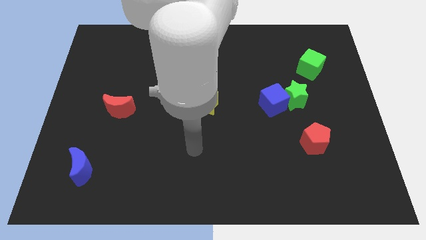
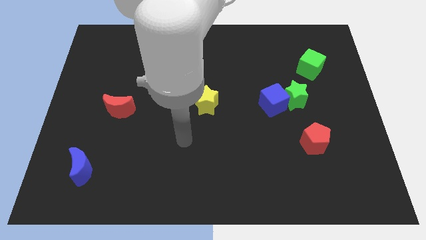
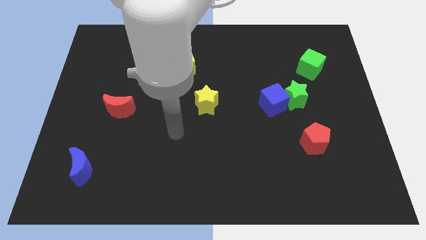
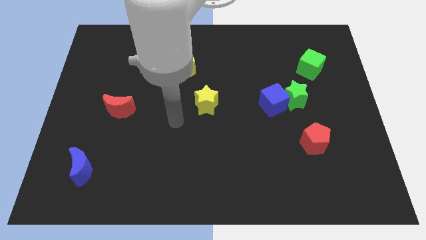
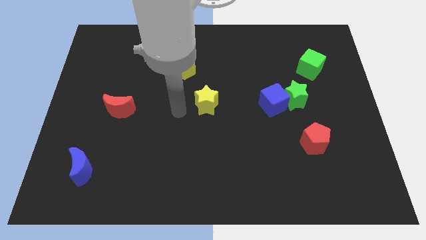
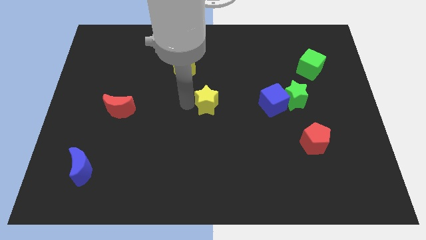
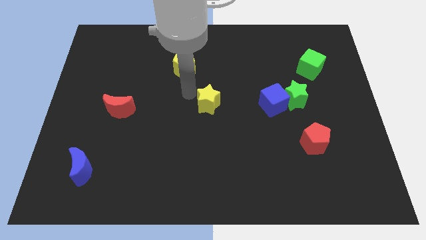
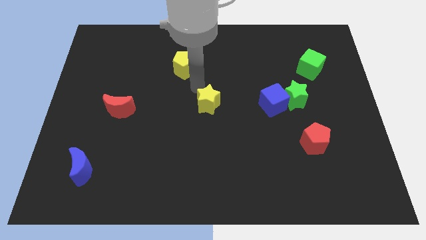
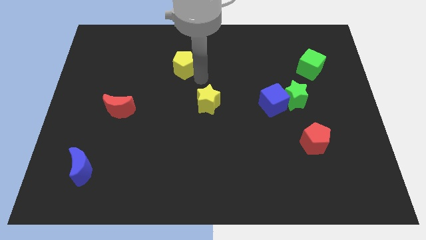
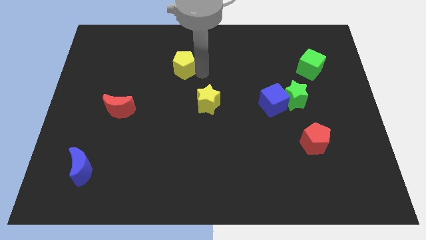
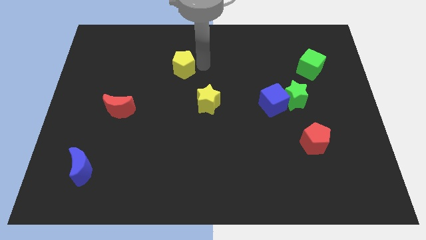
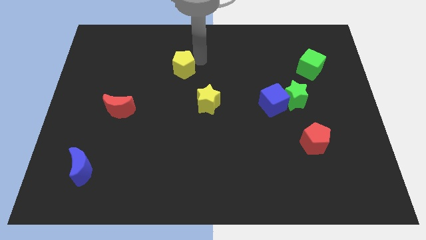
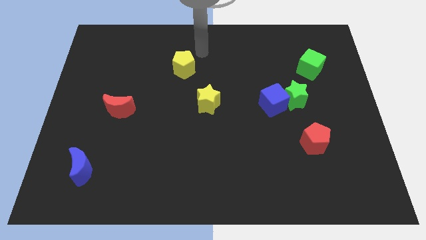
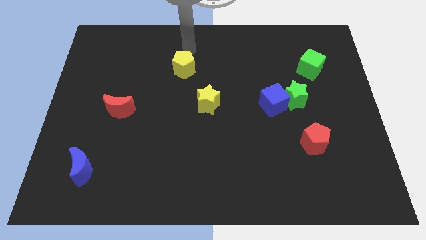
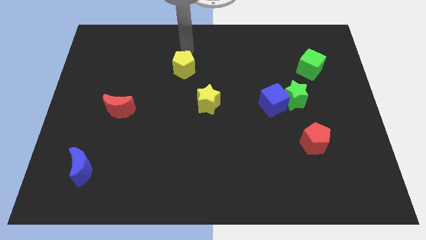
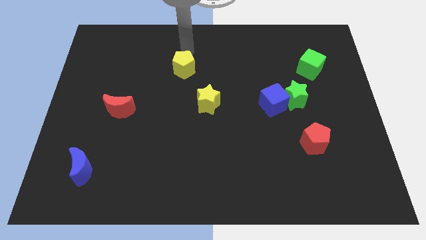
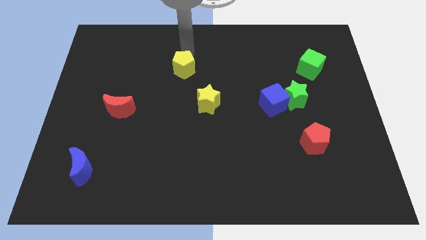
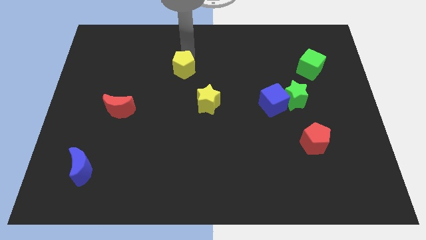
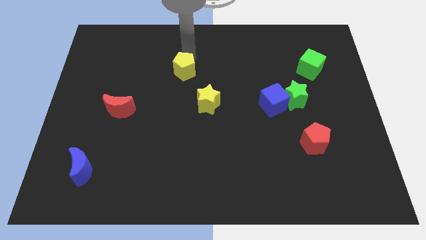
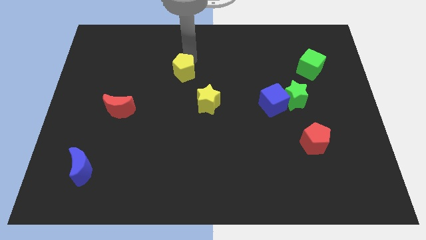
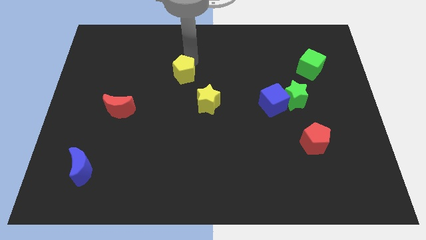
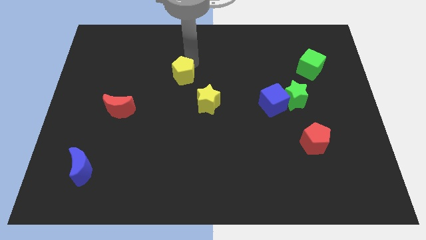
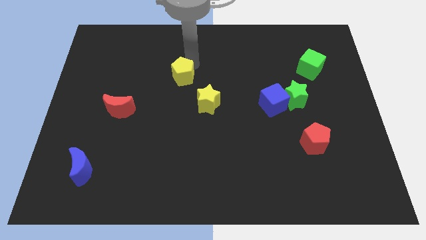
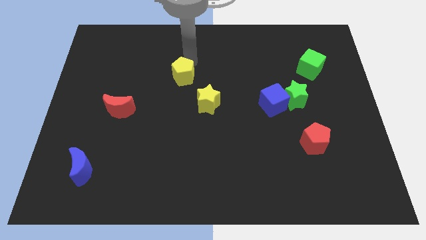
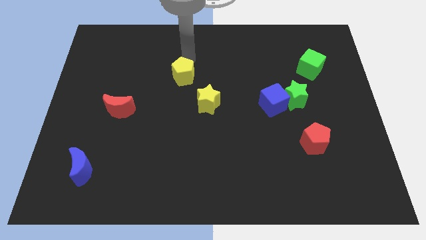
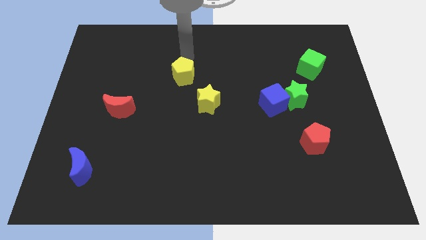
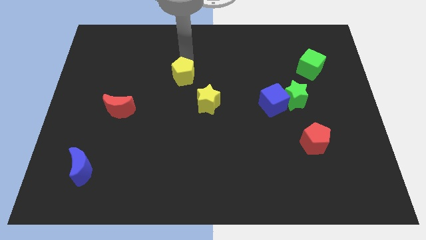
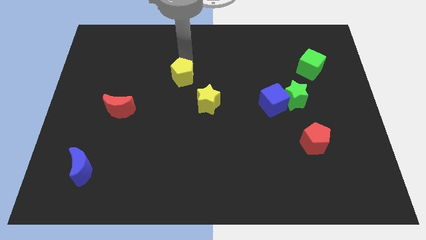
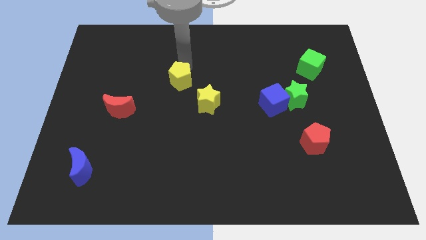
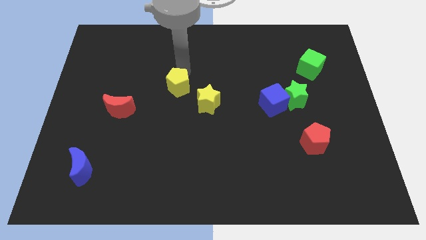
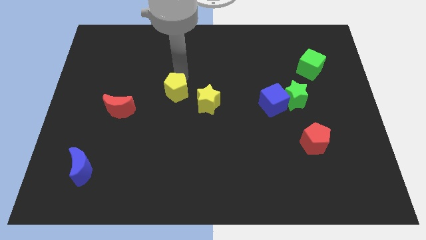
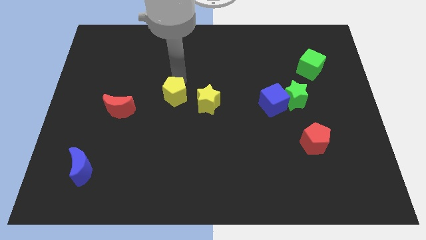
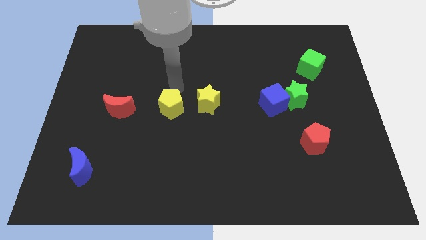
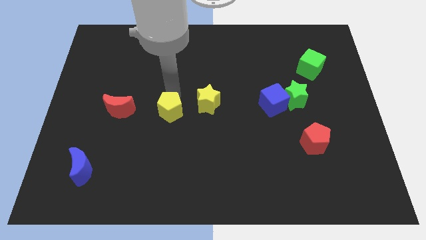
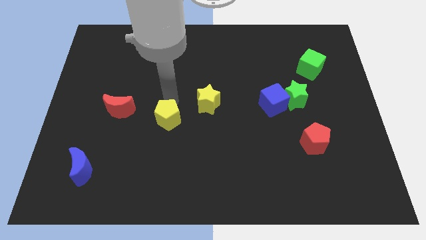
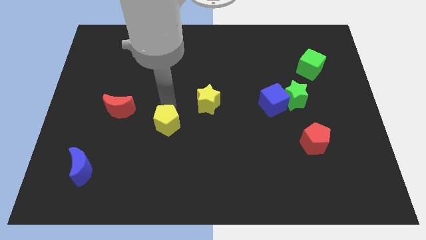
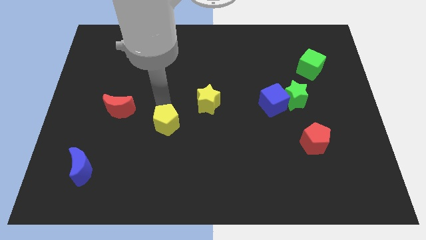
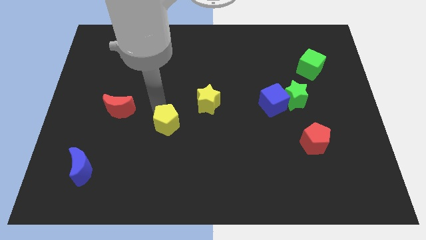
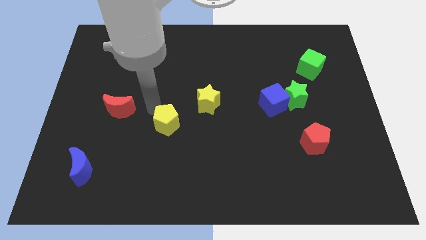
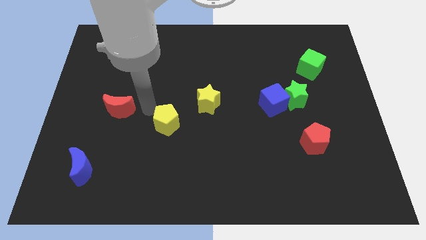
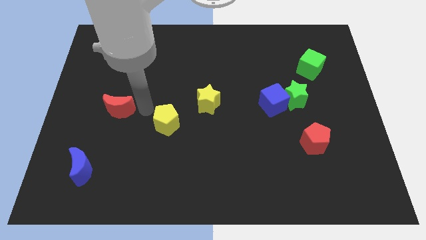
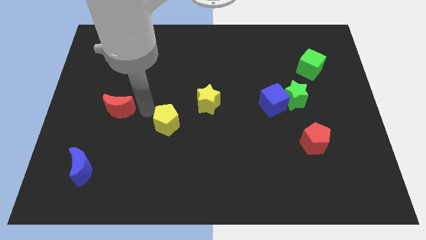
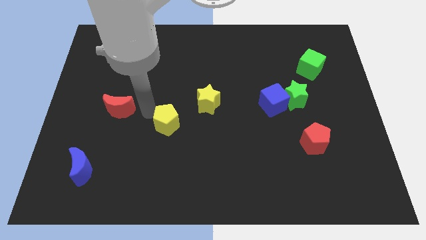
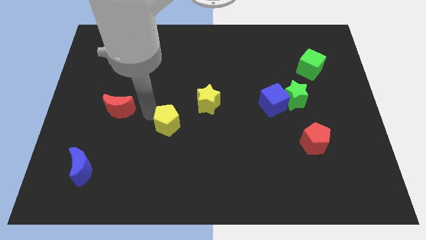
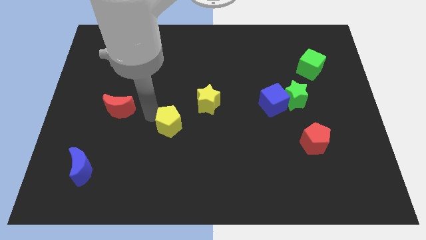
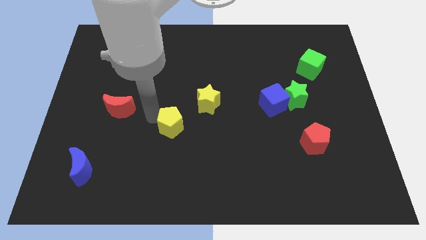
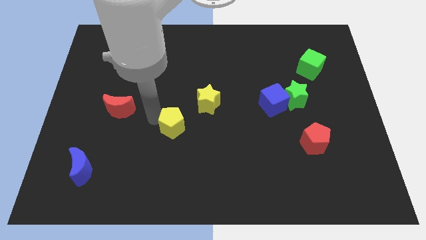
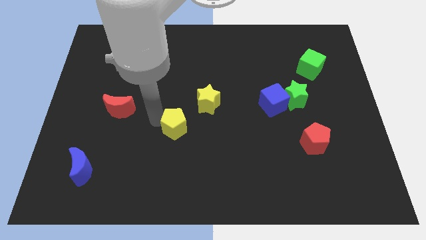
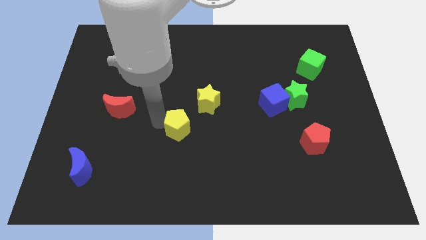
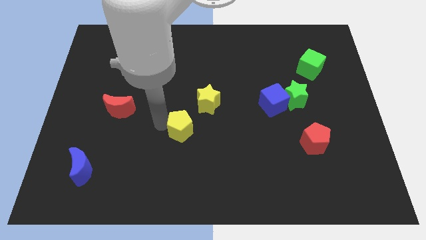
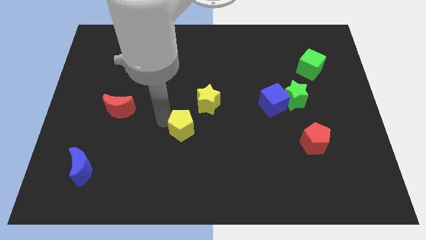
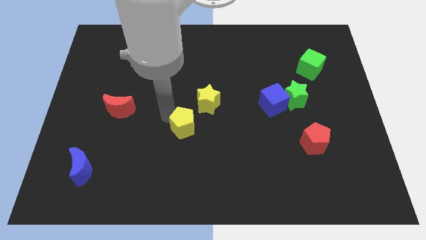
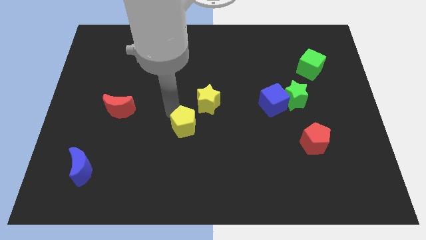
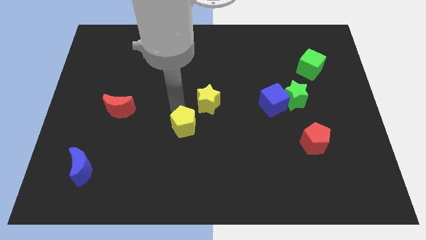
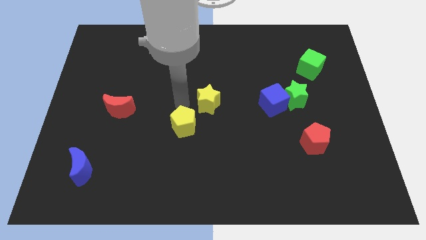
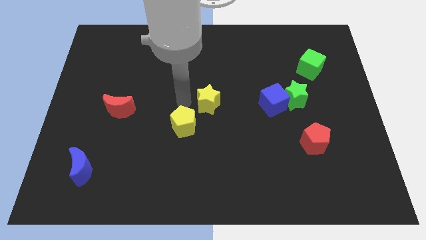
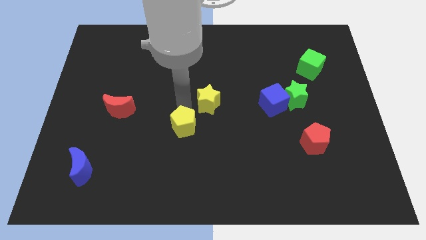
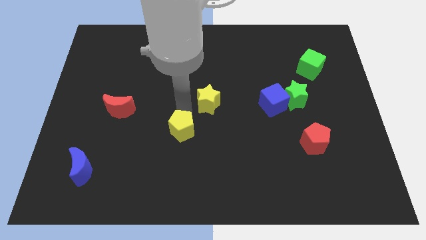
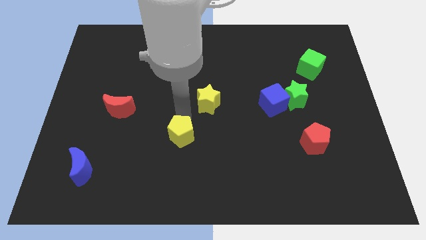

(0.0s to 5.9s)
move the yellow pentagon down

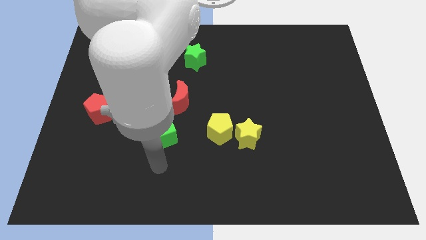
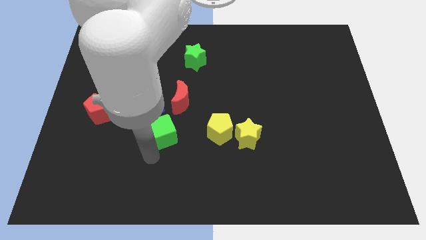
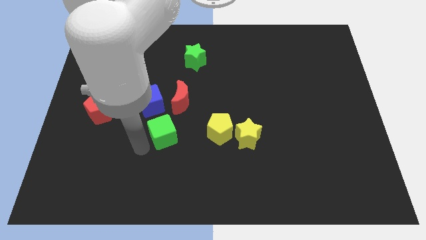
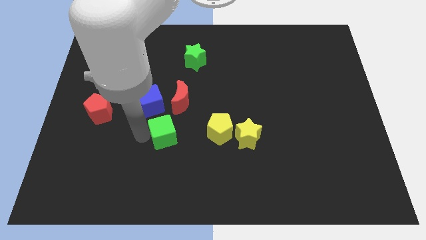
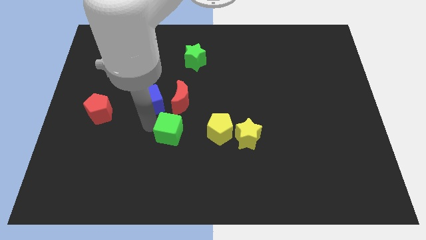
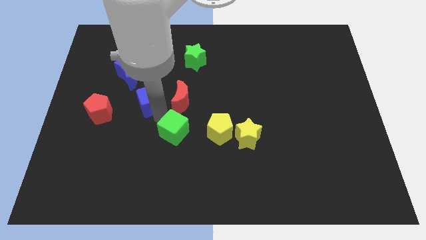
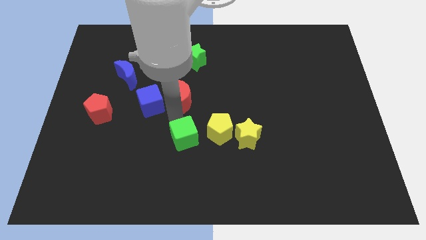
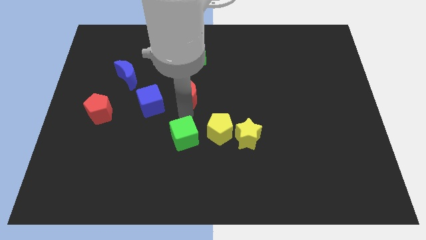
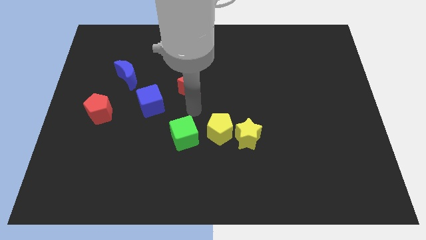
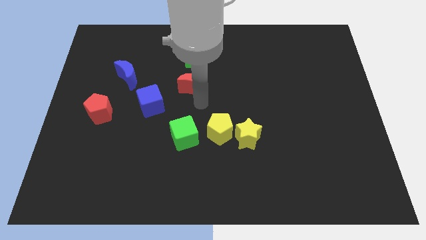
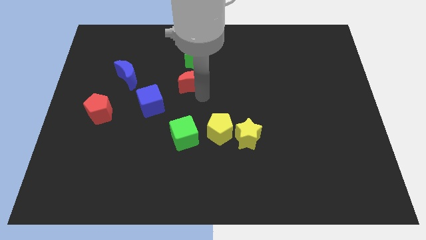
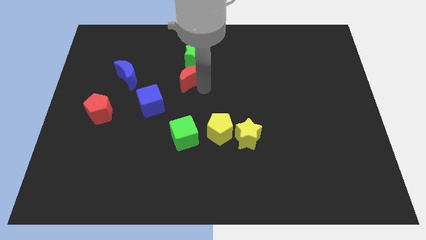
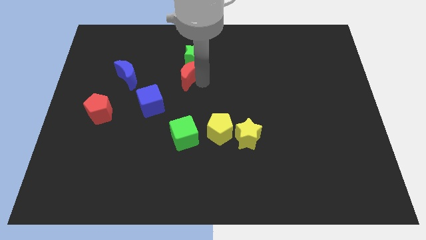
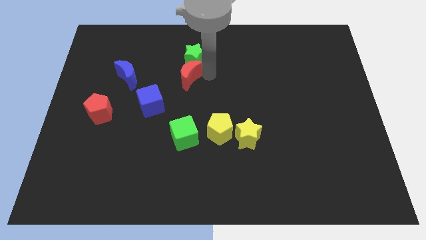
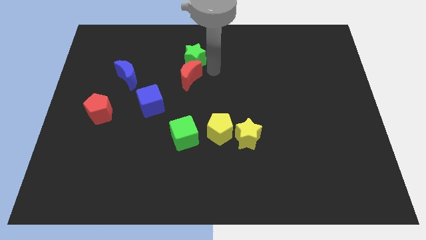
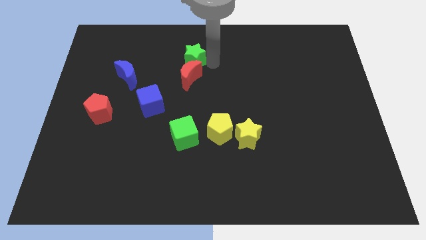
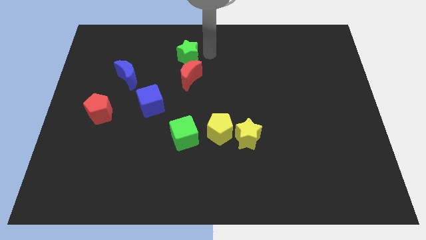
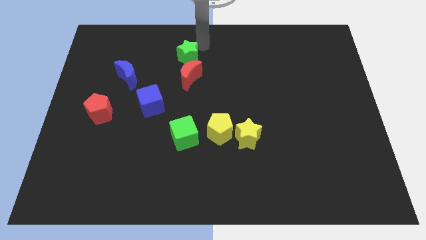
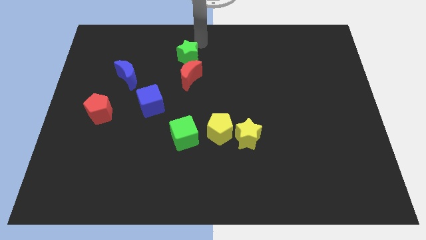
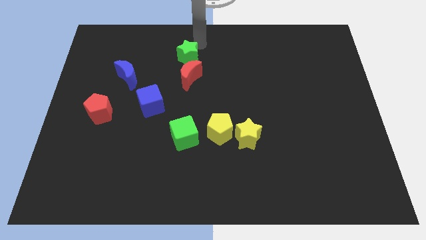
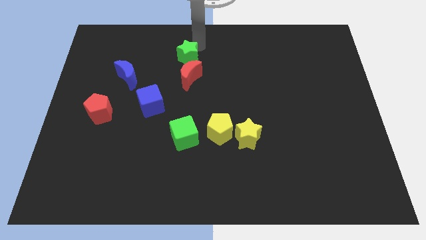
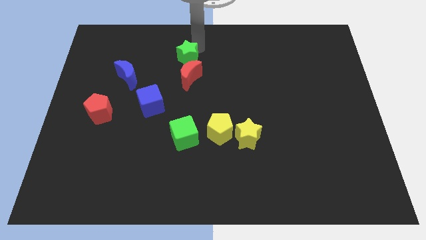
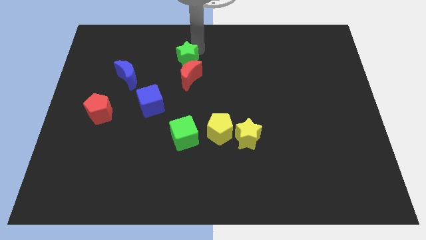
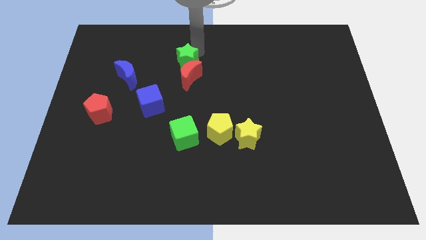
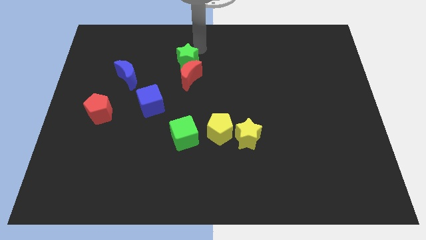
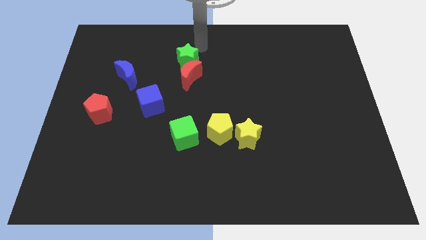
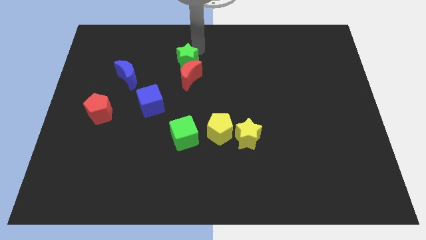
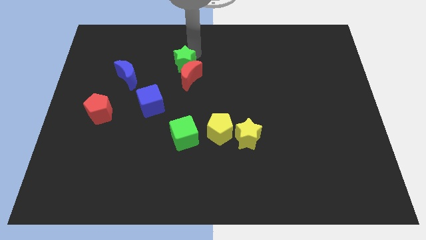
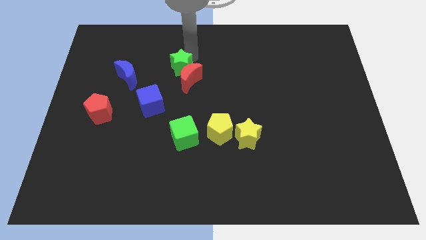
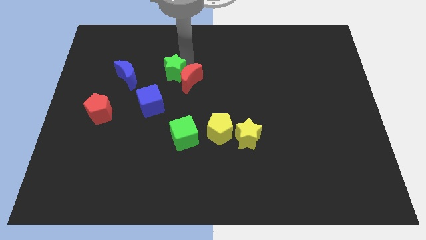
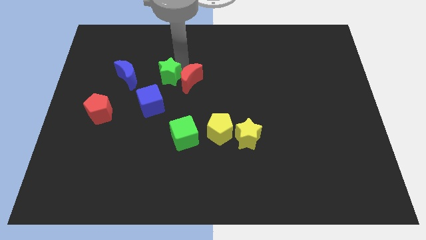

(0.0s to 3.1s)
move the green star a little diagonally downwards and left
